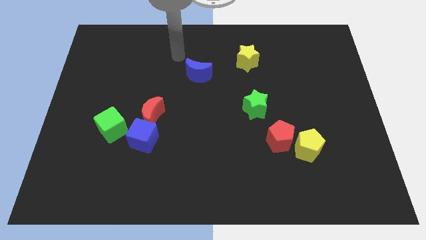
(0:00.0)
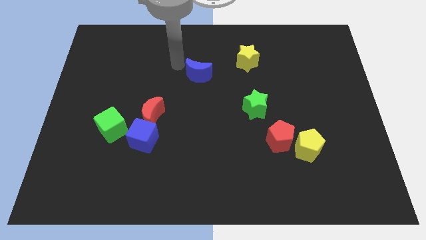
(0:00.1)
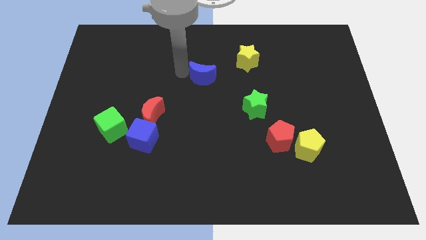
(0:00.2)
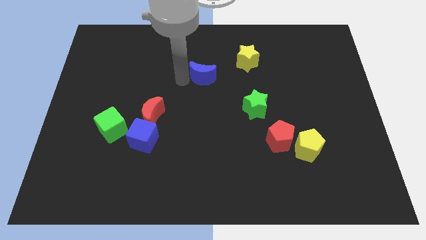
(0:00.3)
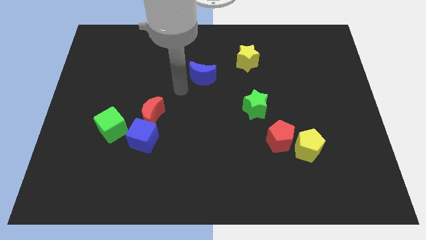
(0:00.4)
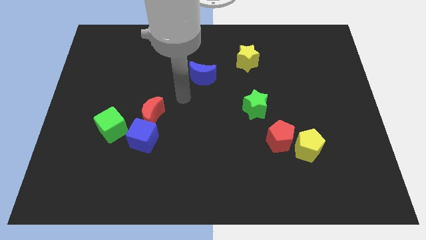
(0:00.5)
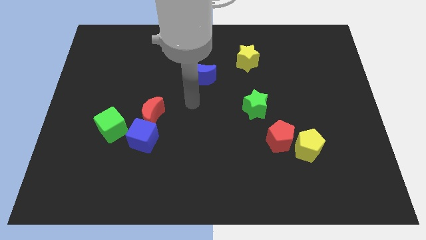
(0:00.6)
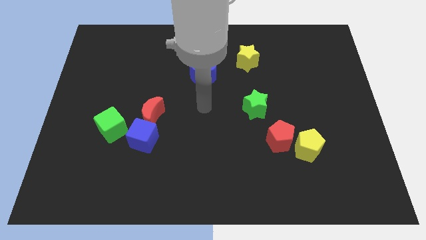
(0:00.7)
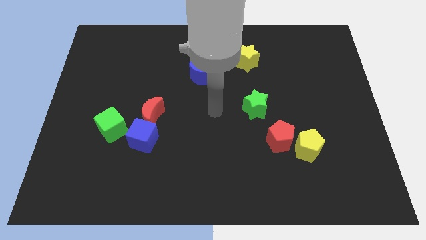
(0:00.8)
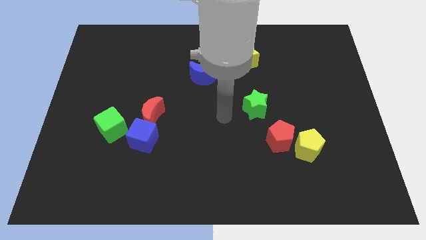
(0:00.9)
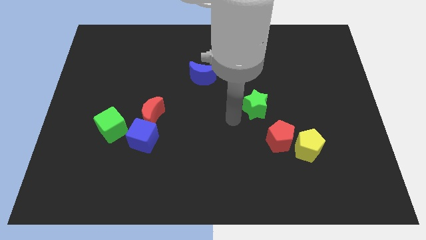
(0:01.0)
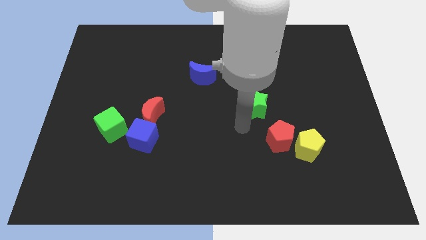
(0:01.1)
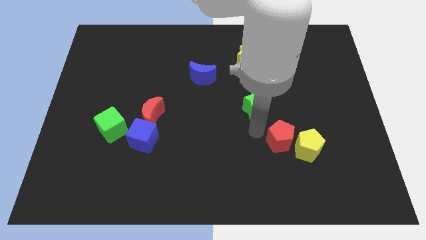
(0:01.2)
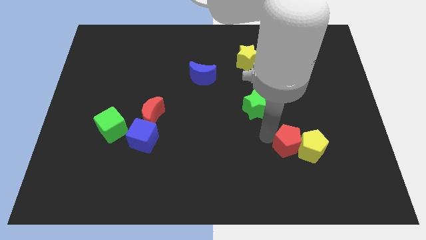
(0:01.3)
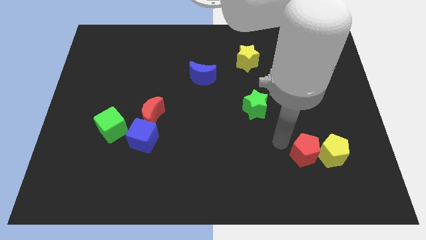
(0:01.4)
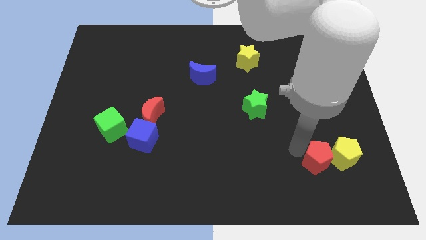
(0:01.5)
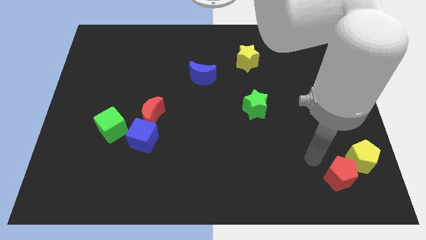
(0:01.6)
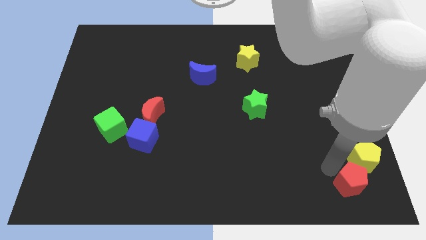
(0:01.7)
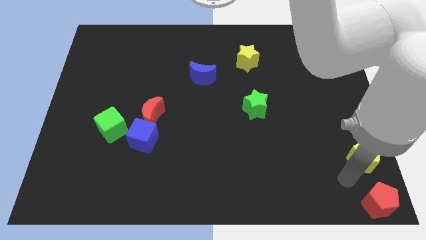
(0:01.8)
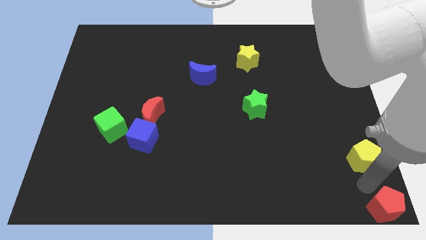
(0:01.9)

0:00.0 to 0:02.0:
pull the yellow pentagon apart from the red pentagon

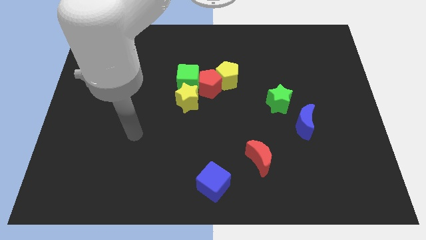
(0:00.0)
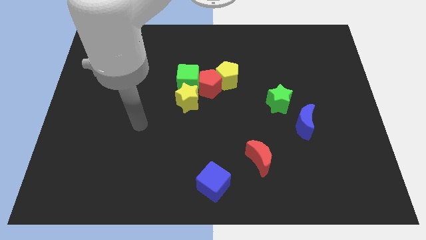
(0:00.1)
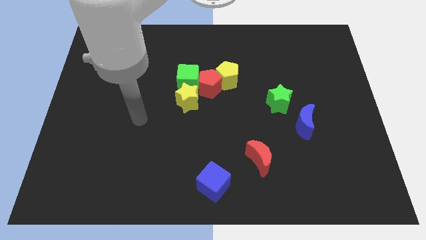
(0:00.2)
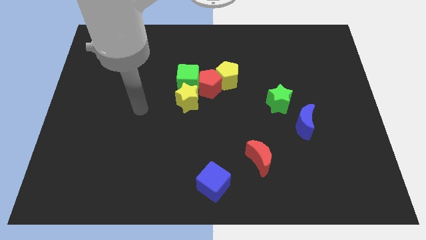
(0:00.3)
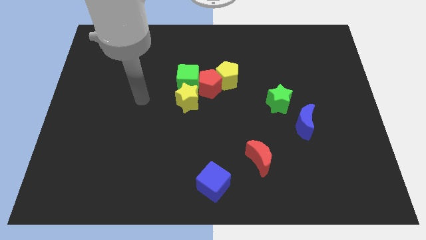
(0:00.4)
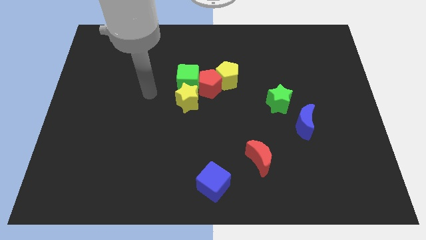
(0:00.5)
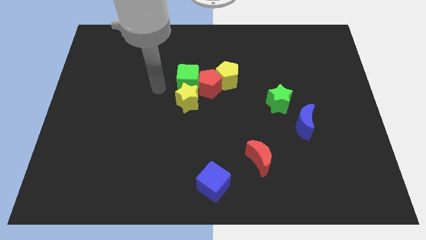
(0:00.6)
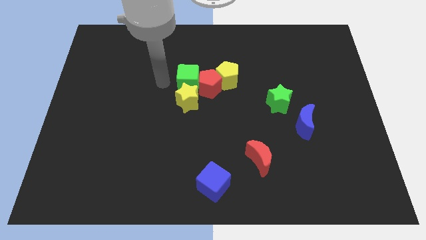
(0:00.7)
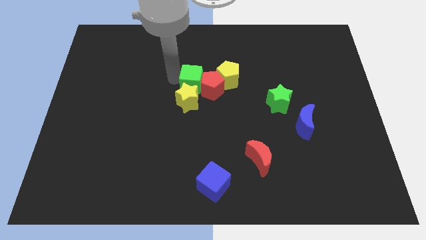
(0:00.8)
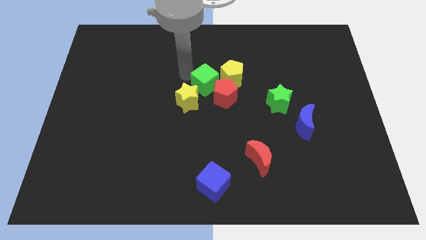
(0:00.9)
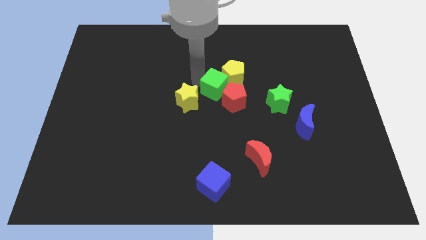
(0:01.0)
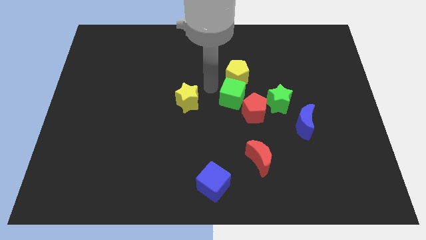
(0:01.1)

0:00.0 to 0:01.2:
pull the red pentagon apart from the yellow pentagon, green cube, and yellow star

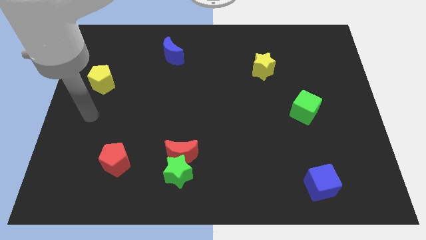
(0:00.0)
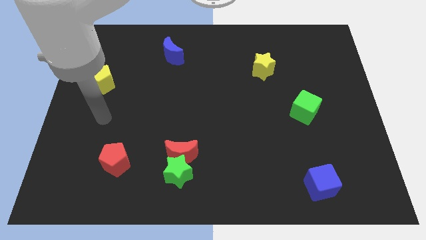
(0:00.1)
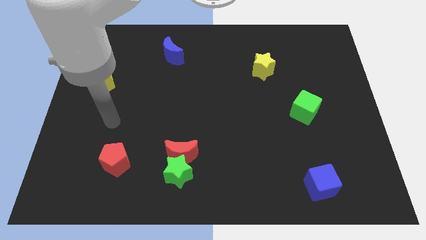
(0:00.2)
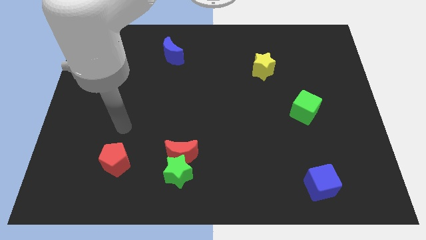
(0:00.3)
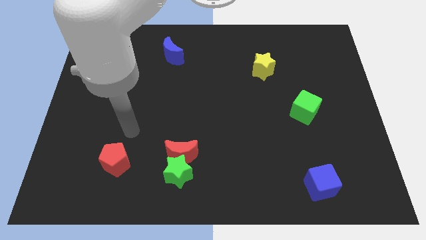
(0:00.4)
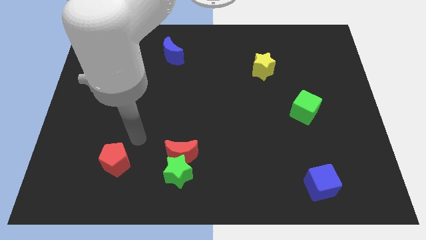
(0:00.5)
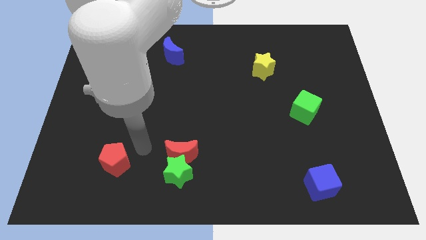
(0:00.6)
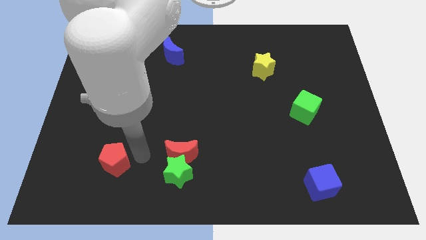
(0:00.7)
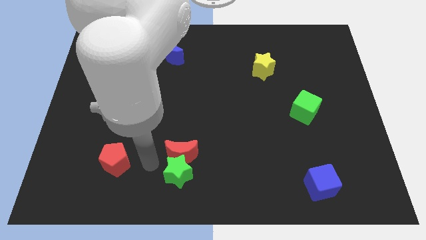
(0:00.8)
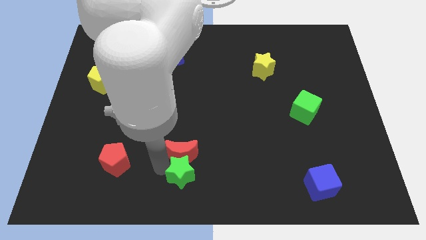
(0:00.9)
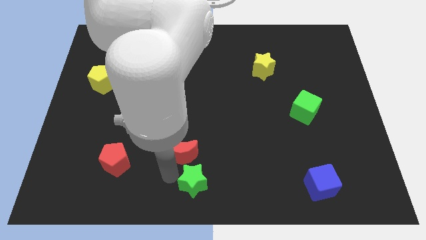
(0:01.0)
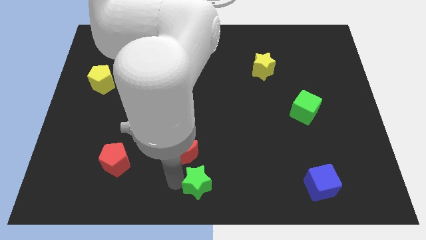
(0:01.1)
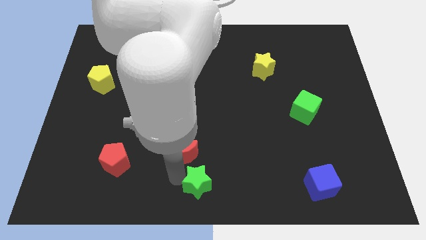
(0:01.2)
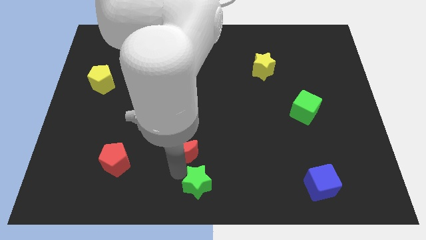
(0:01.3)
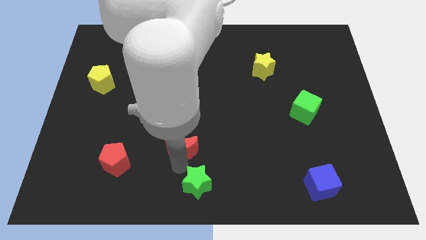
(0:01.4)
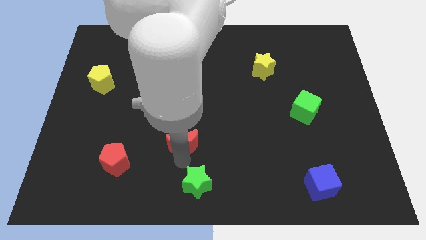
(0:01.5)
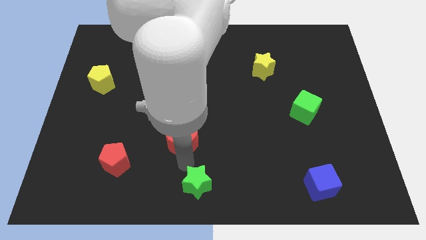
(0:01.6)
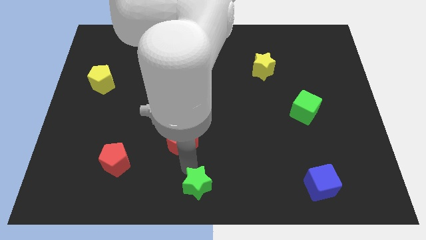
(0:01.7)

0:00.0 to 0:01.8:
separate the red moon from the green star

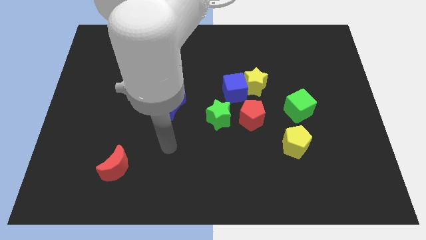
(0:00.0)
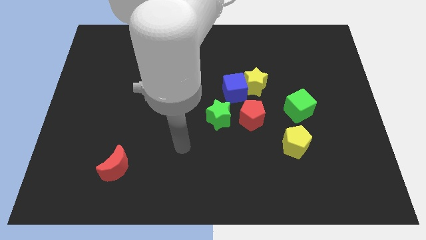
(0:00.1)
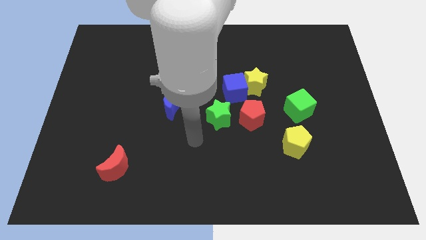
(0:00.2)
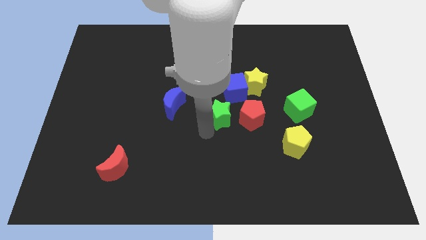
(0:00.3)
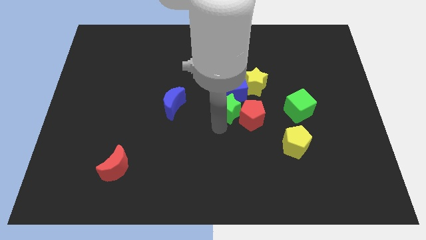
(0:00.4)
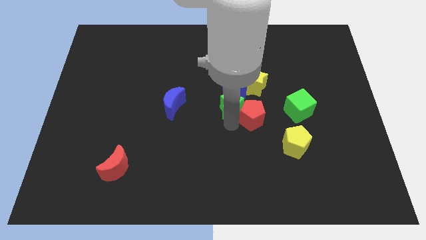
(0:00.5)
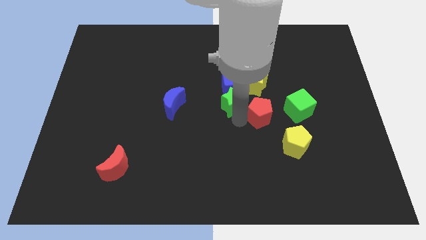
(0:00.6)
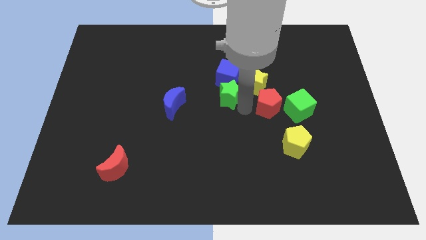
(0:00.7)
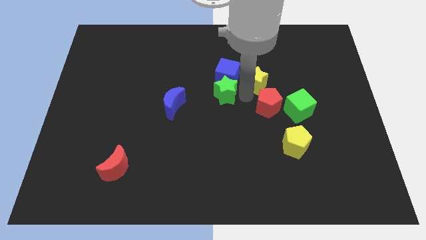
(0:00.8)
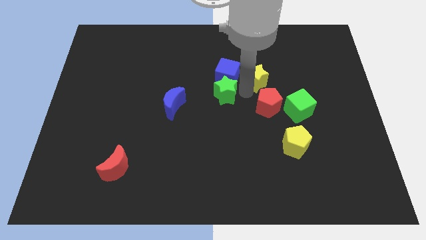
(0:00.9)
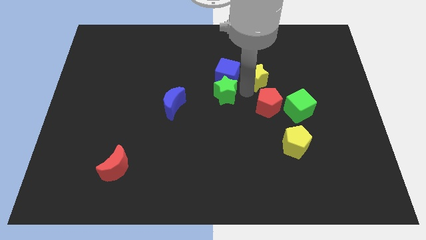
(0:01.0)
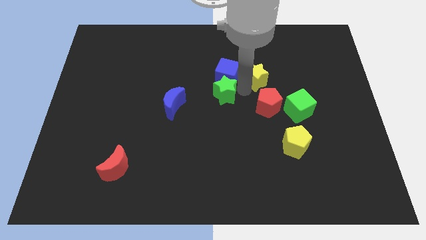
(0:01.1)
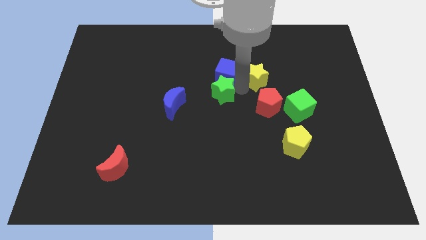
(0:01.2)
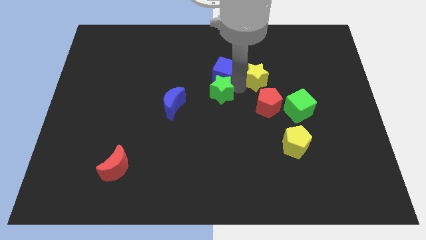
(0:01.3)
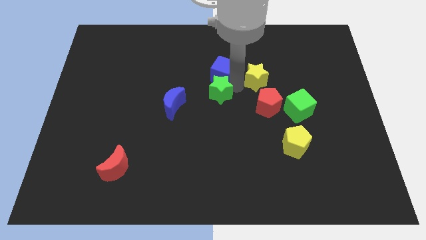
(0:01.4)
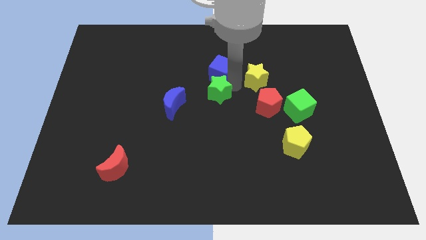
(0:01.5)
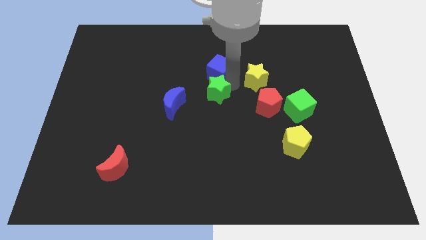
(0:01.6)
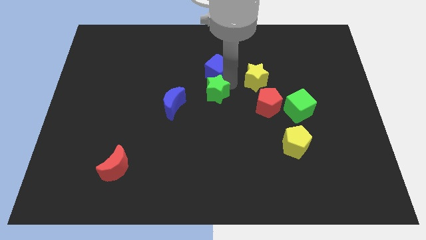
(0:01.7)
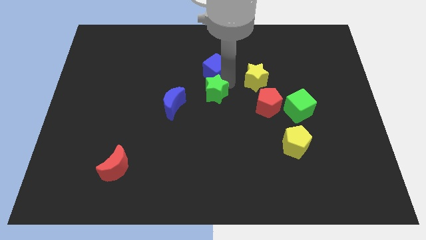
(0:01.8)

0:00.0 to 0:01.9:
move the blue cube away from the yellow star, red pentagon, and green star

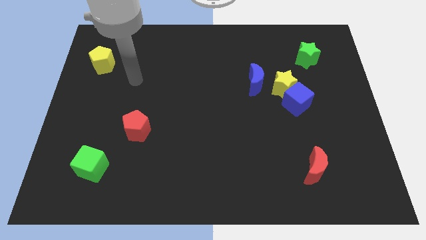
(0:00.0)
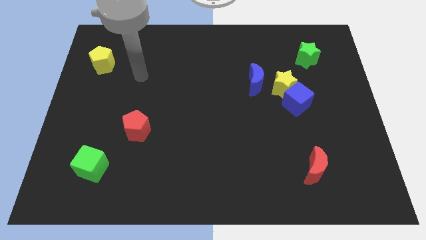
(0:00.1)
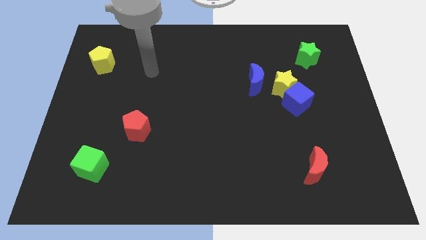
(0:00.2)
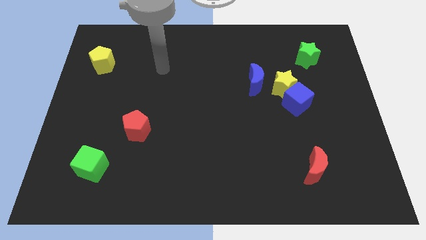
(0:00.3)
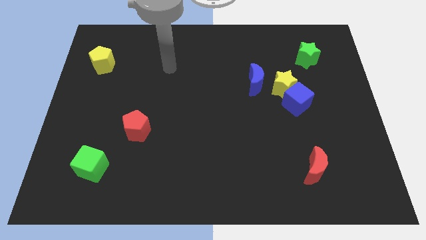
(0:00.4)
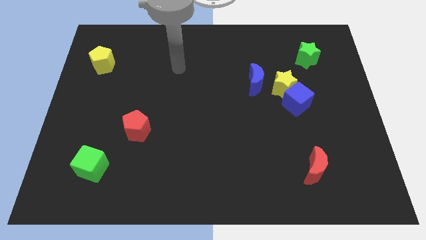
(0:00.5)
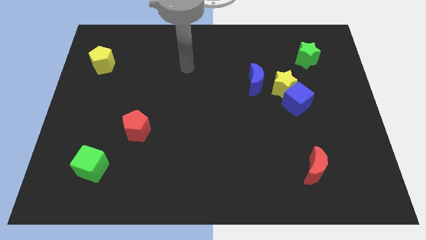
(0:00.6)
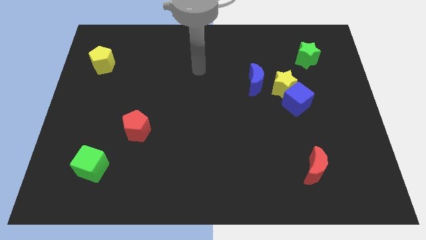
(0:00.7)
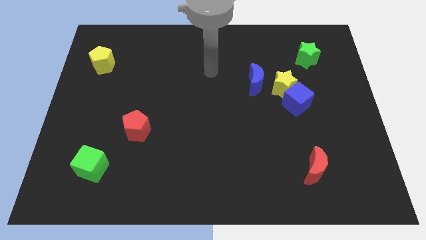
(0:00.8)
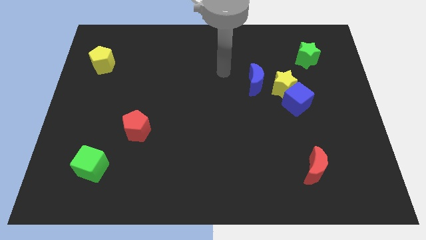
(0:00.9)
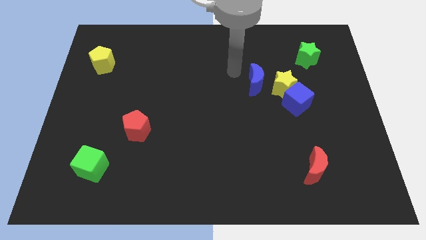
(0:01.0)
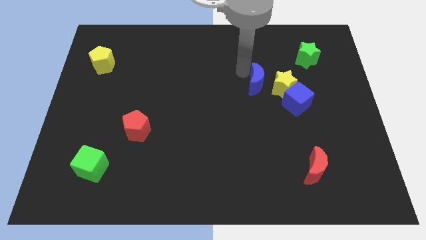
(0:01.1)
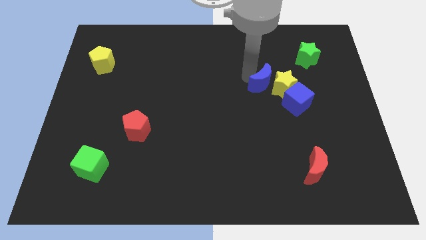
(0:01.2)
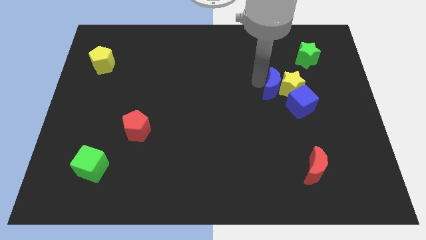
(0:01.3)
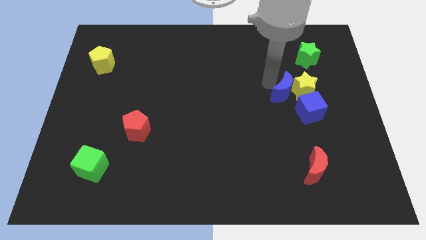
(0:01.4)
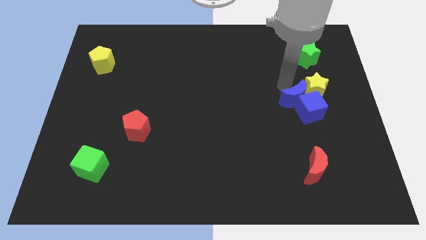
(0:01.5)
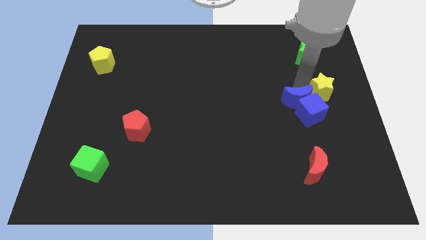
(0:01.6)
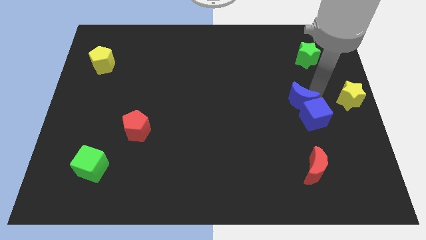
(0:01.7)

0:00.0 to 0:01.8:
pull the blue cube apart from the yellow star

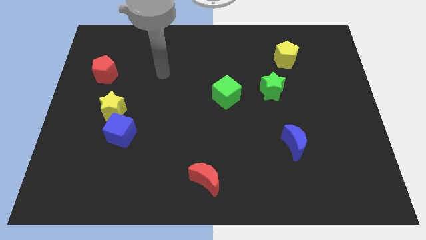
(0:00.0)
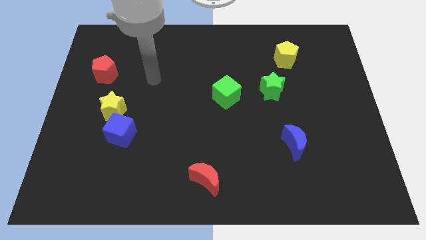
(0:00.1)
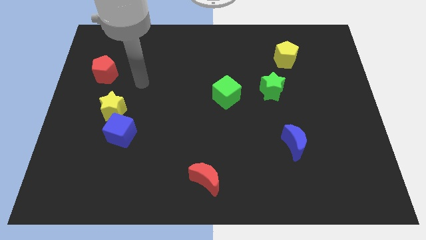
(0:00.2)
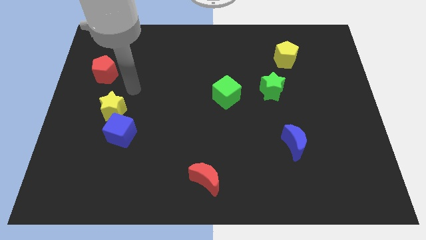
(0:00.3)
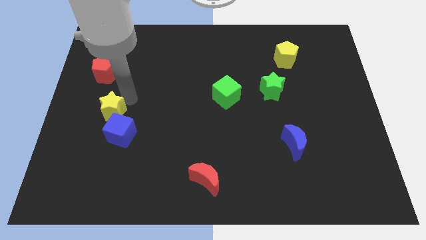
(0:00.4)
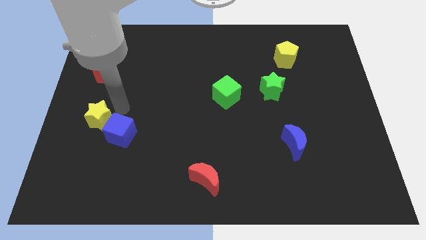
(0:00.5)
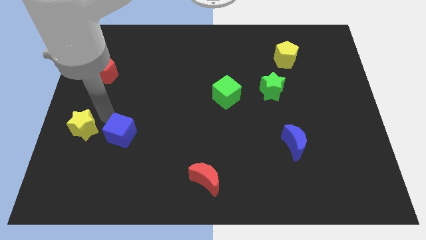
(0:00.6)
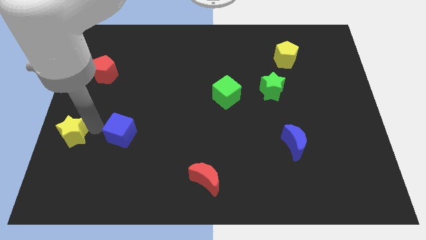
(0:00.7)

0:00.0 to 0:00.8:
move the blue cube away from the yellow star

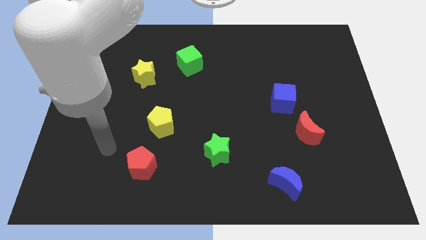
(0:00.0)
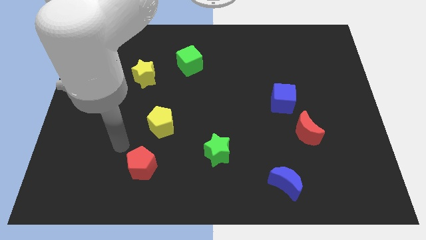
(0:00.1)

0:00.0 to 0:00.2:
move the red moon away from the blue cube
